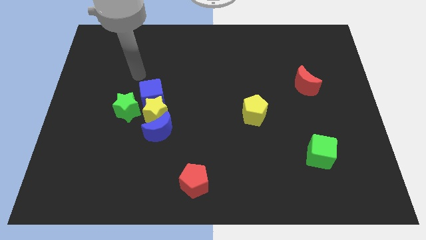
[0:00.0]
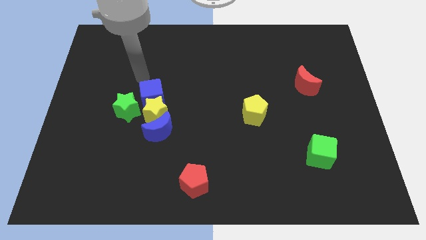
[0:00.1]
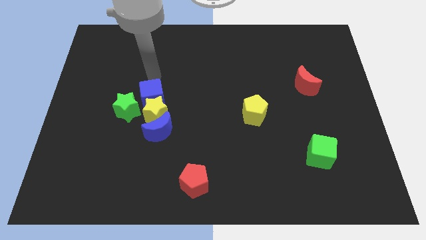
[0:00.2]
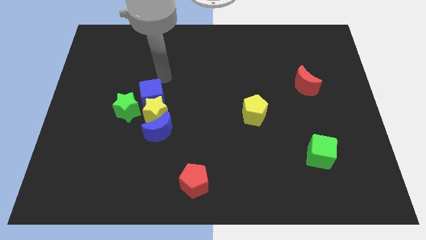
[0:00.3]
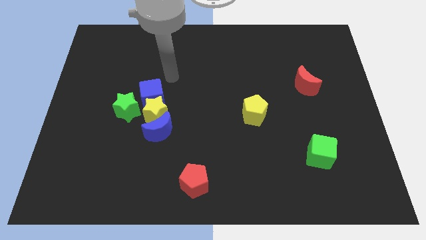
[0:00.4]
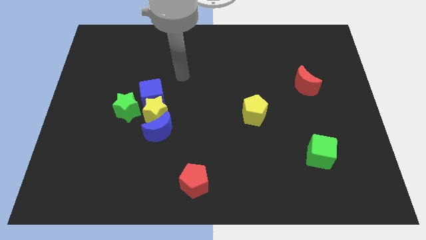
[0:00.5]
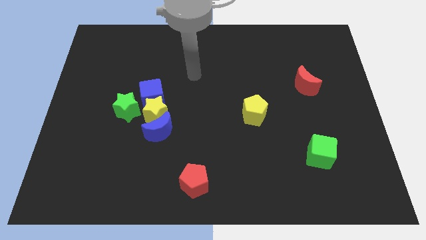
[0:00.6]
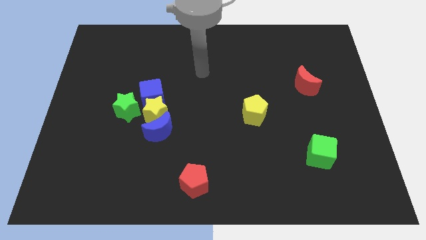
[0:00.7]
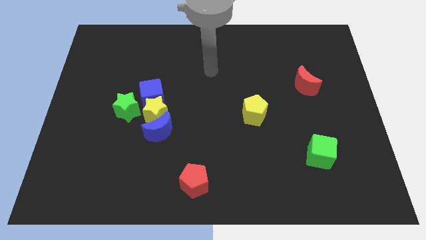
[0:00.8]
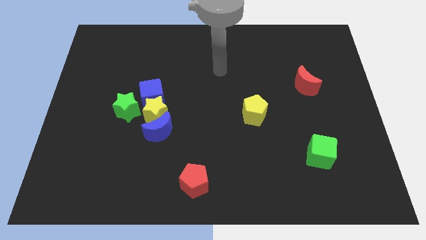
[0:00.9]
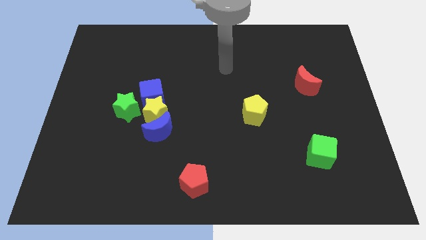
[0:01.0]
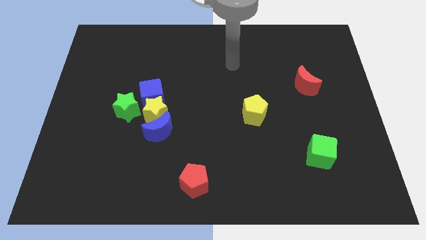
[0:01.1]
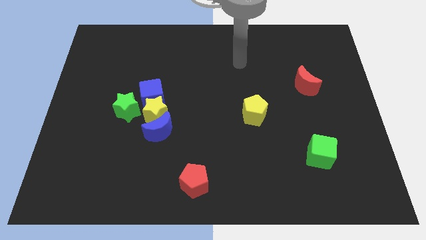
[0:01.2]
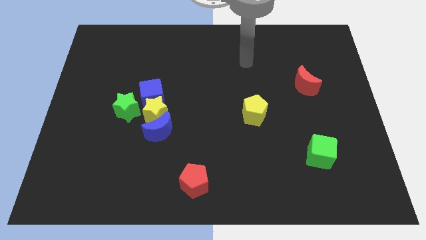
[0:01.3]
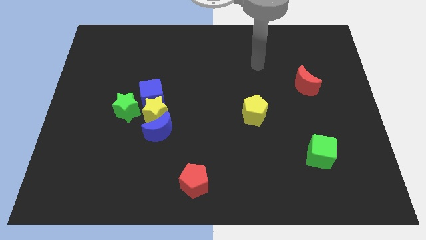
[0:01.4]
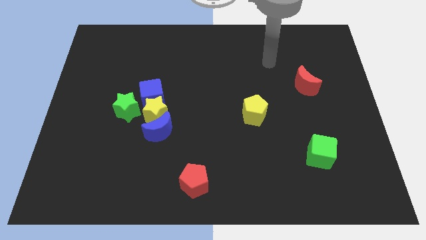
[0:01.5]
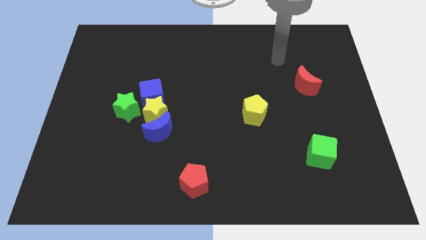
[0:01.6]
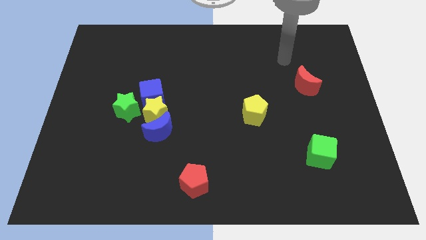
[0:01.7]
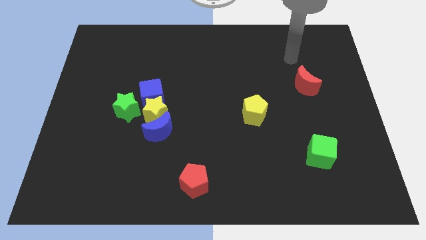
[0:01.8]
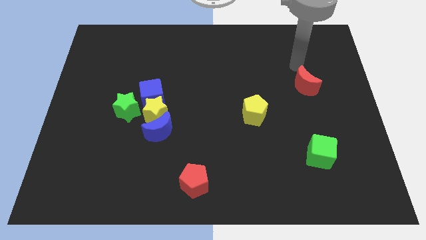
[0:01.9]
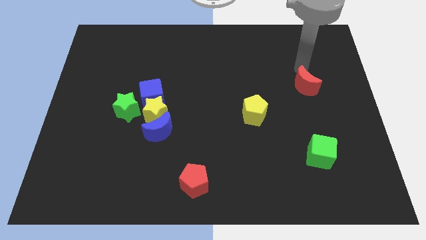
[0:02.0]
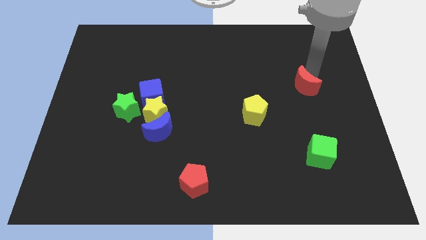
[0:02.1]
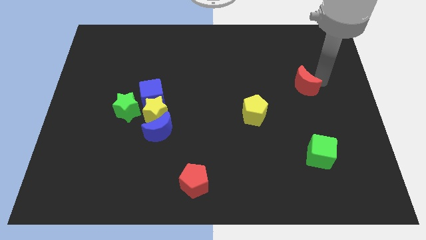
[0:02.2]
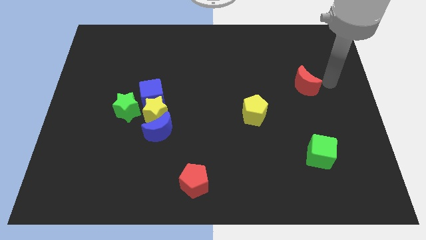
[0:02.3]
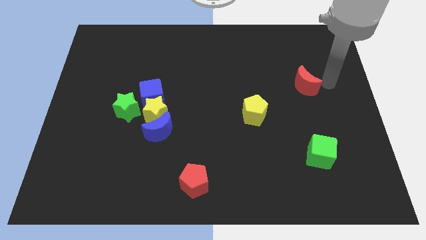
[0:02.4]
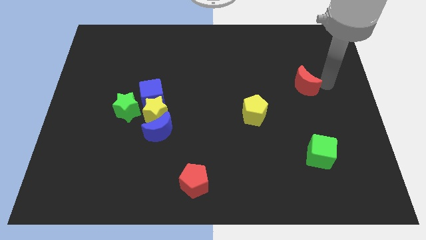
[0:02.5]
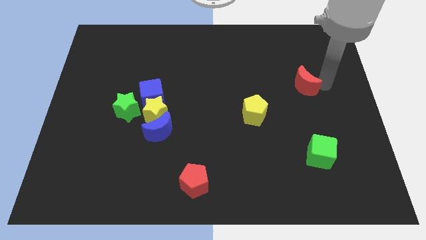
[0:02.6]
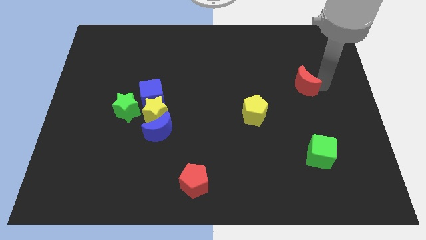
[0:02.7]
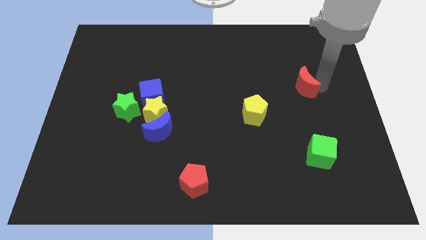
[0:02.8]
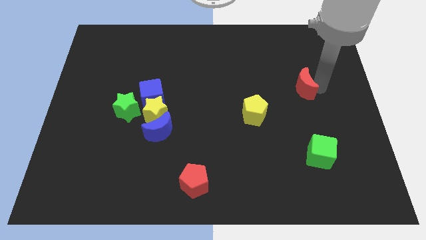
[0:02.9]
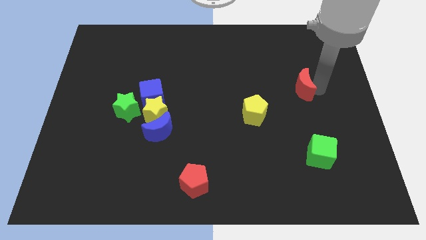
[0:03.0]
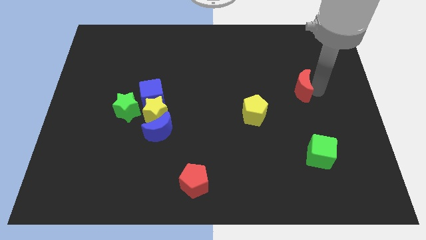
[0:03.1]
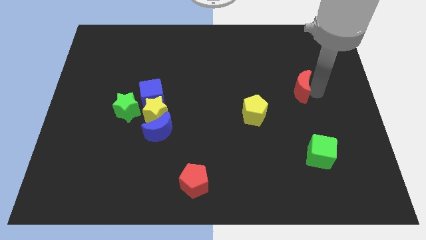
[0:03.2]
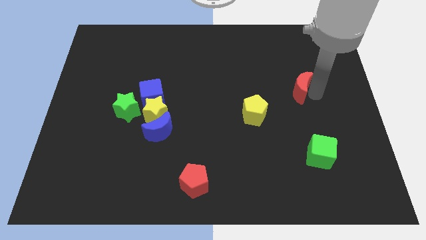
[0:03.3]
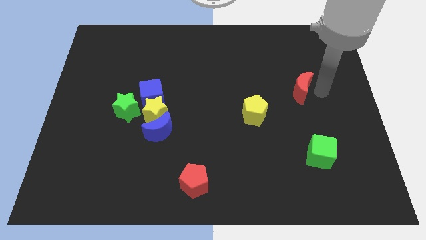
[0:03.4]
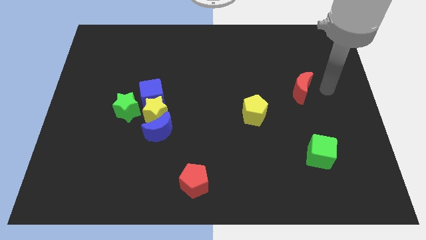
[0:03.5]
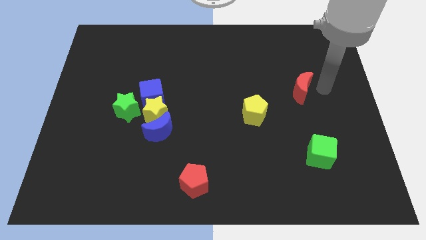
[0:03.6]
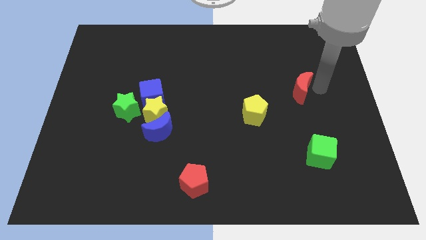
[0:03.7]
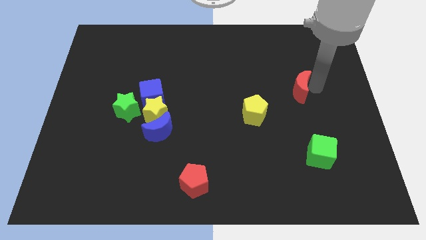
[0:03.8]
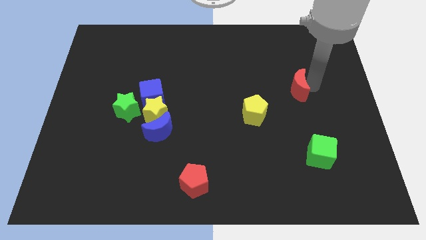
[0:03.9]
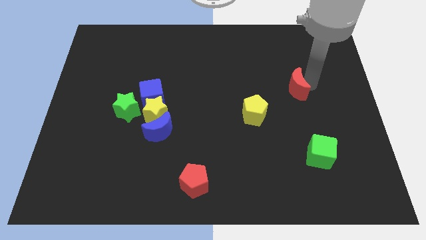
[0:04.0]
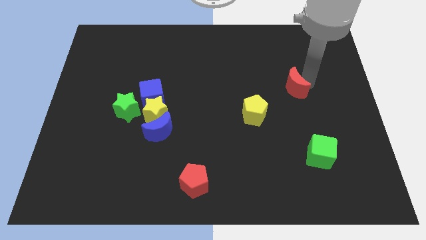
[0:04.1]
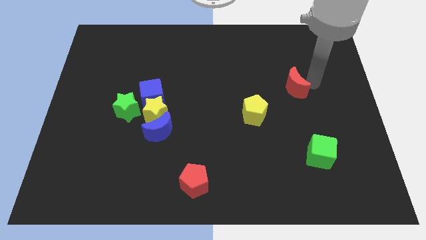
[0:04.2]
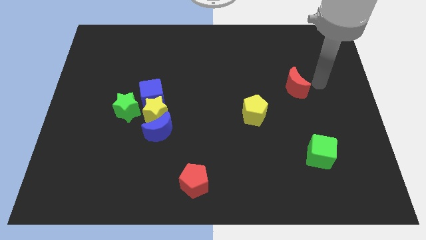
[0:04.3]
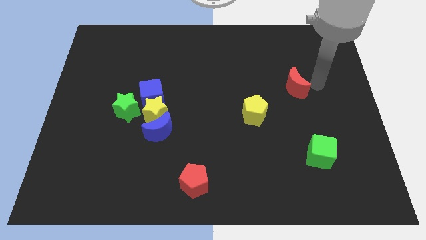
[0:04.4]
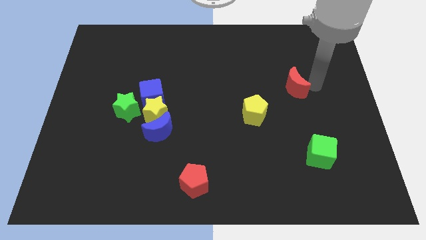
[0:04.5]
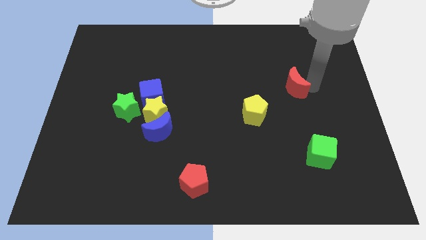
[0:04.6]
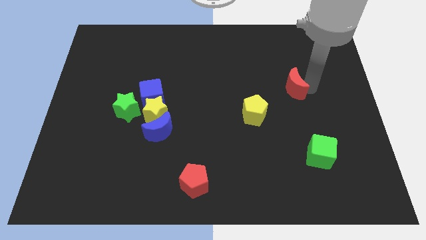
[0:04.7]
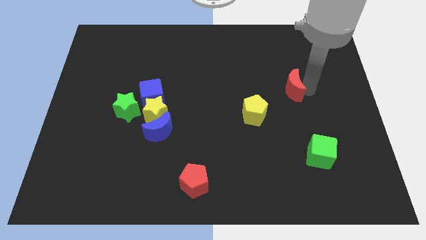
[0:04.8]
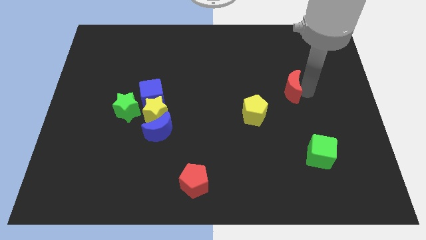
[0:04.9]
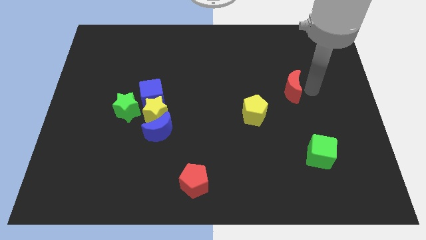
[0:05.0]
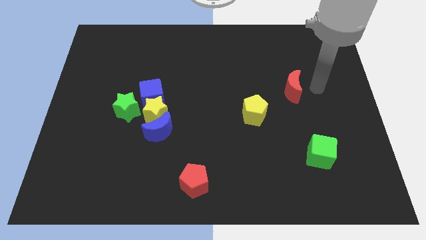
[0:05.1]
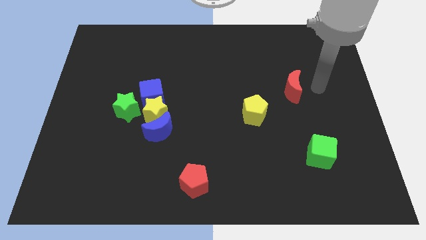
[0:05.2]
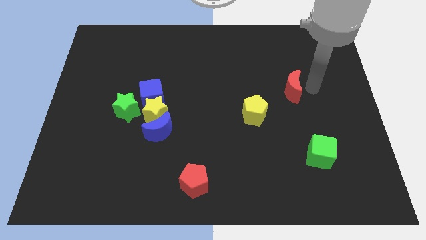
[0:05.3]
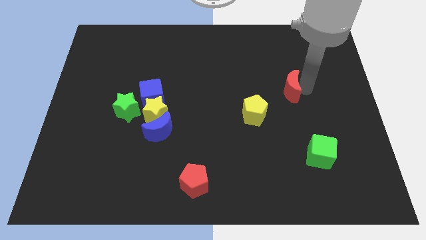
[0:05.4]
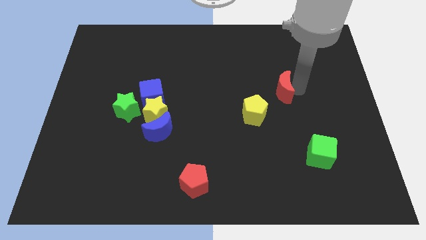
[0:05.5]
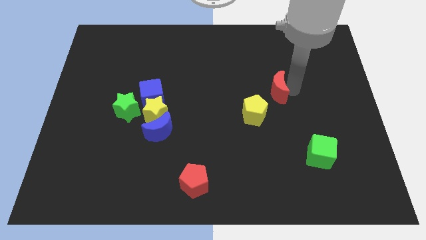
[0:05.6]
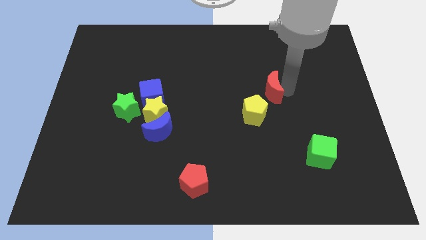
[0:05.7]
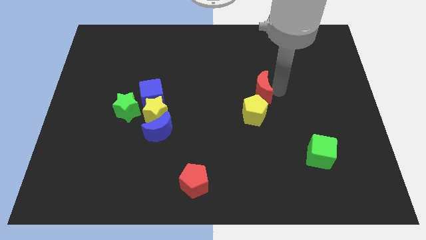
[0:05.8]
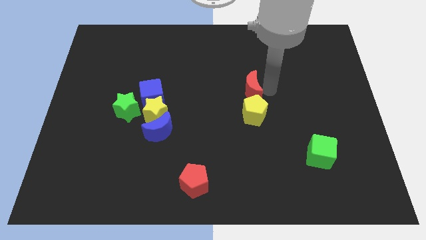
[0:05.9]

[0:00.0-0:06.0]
slide the red moon to the top left of the yellow pentagon

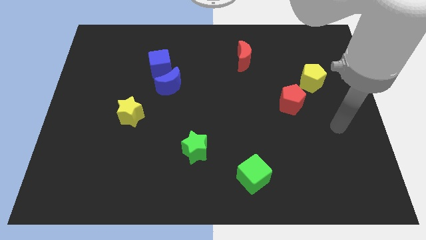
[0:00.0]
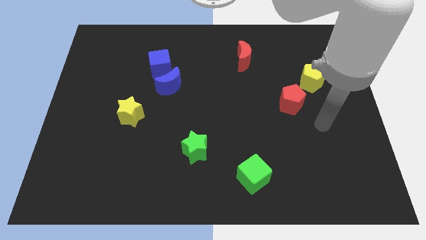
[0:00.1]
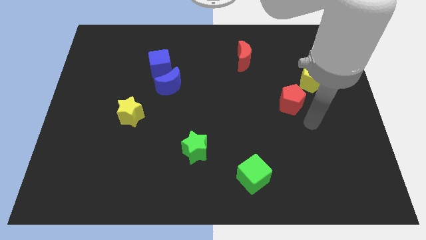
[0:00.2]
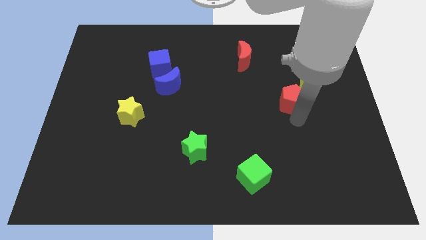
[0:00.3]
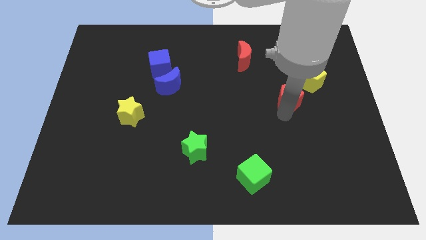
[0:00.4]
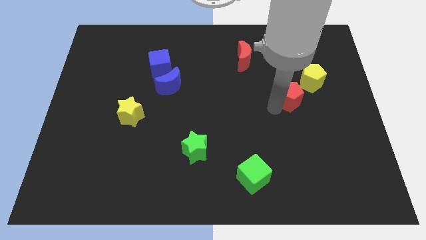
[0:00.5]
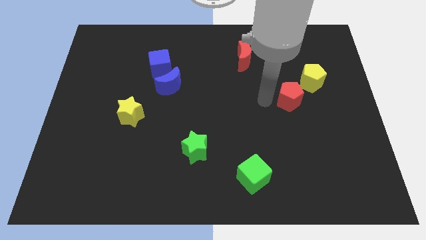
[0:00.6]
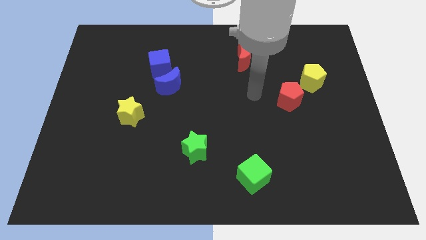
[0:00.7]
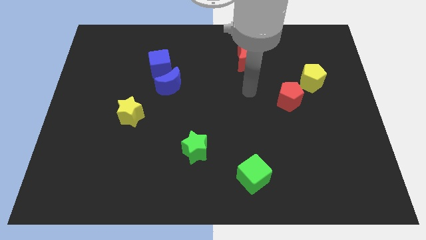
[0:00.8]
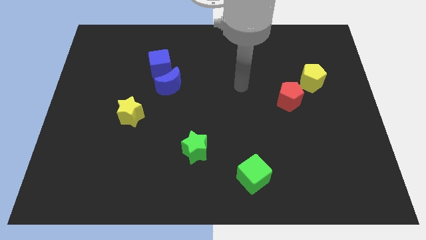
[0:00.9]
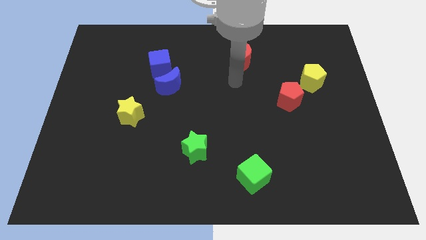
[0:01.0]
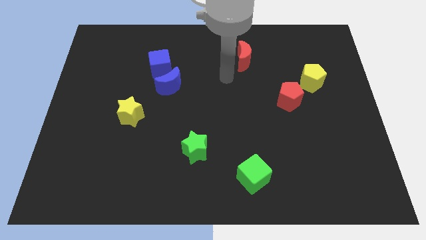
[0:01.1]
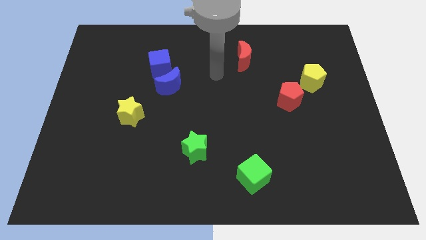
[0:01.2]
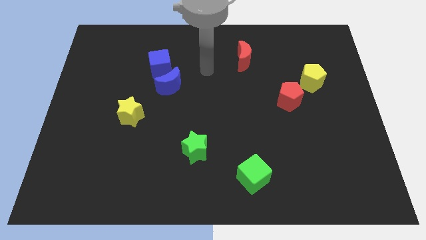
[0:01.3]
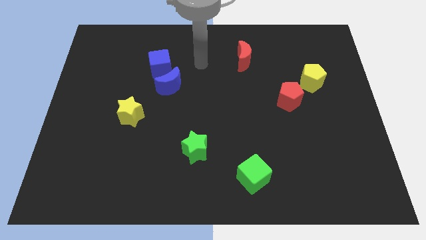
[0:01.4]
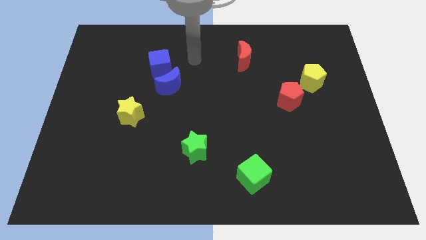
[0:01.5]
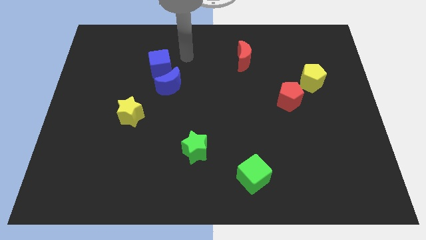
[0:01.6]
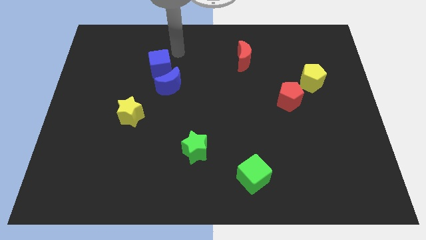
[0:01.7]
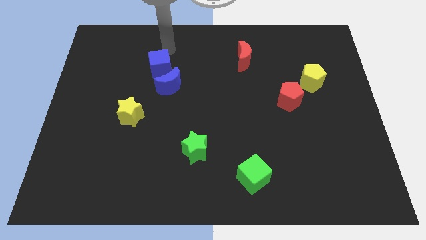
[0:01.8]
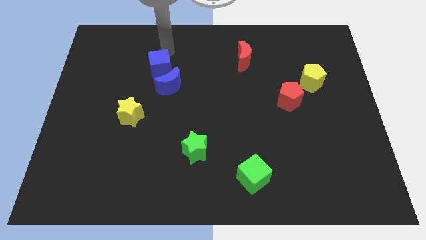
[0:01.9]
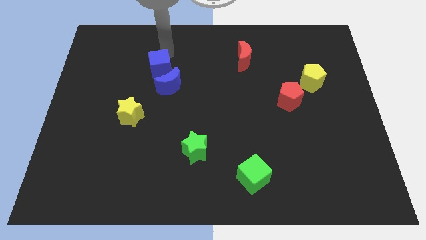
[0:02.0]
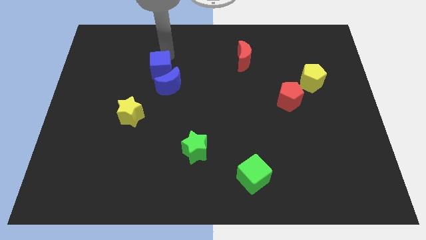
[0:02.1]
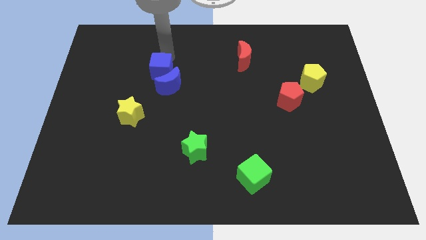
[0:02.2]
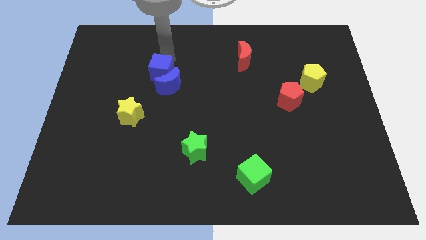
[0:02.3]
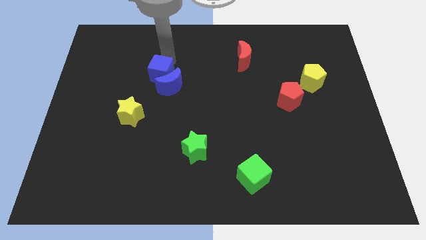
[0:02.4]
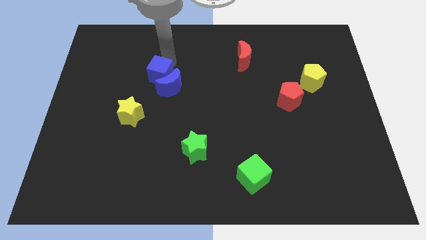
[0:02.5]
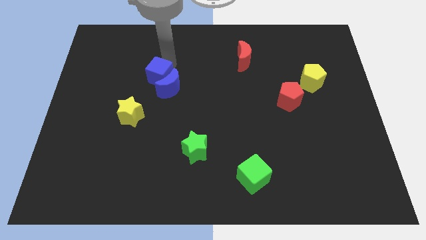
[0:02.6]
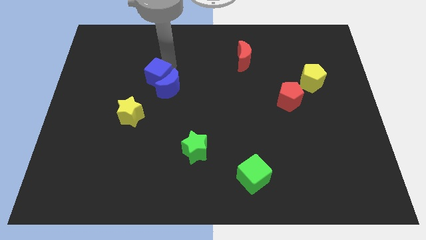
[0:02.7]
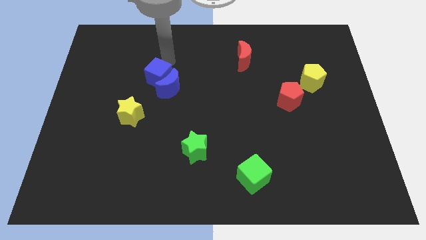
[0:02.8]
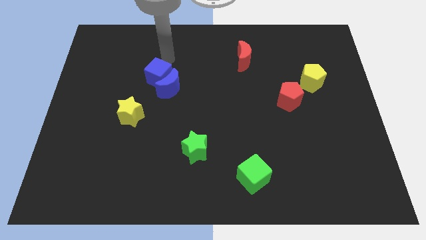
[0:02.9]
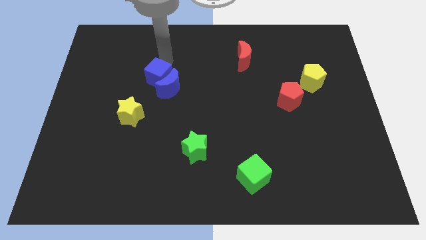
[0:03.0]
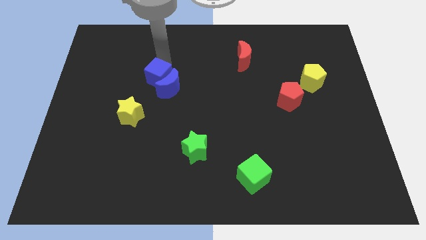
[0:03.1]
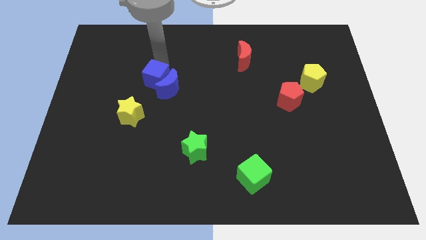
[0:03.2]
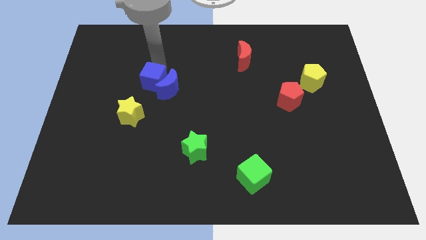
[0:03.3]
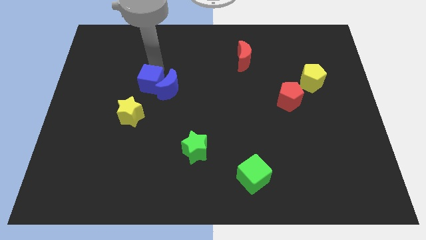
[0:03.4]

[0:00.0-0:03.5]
slide the blue cube to the bottom left of the blue moon
